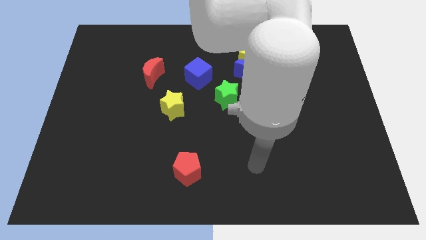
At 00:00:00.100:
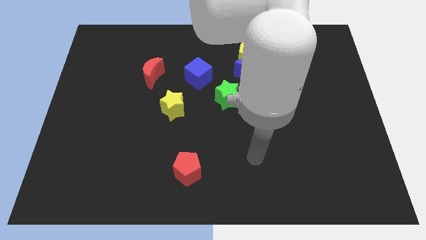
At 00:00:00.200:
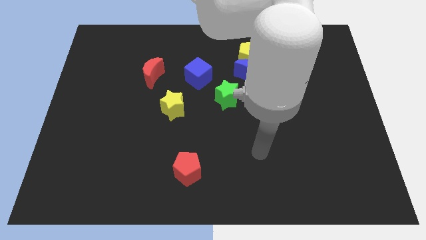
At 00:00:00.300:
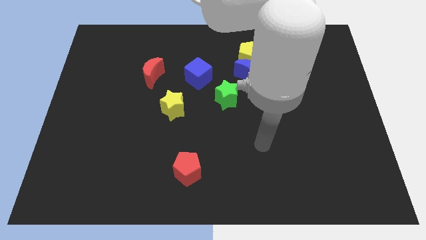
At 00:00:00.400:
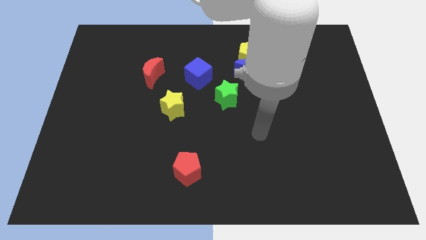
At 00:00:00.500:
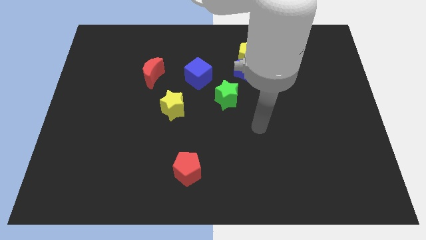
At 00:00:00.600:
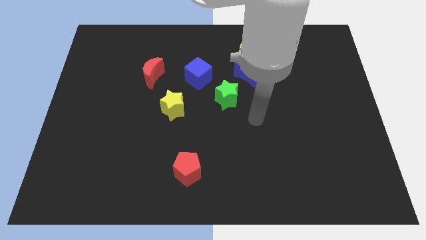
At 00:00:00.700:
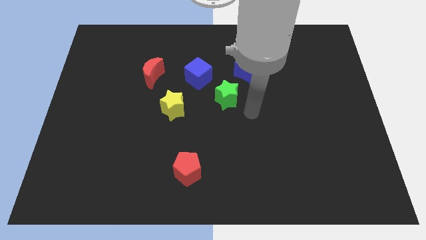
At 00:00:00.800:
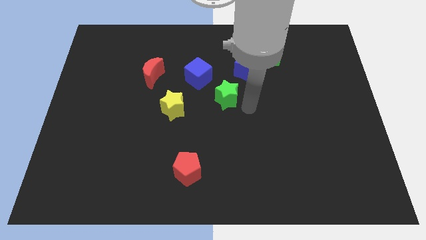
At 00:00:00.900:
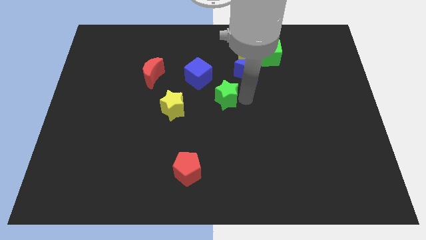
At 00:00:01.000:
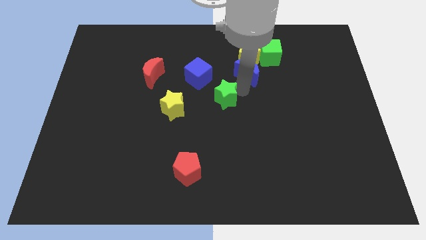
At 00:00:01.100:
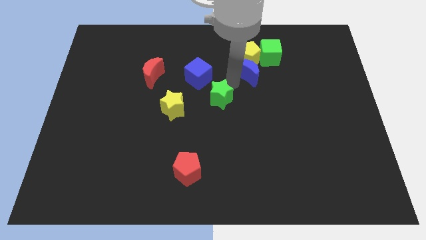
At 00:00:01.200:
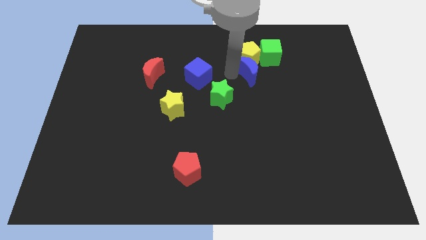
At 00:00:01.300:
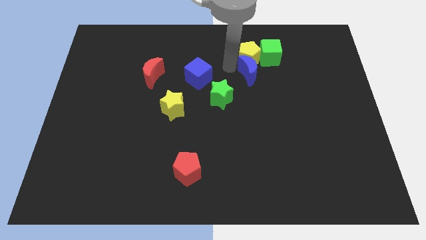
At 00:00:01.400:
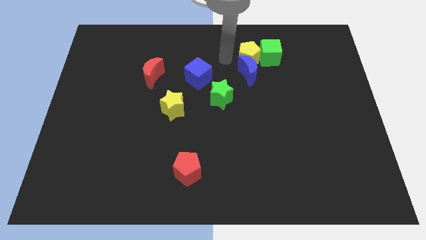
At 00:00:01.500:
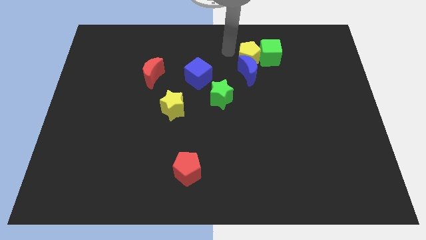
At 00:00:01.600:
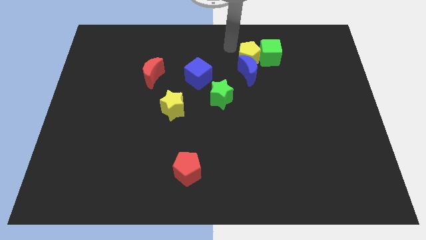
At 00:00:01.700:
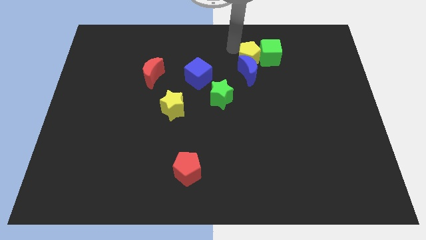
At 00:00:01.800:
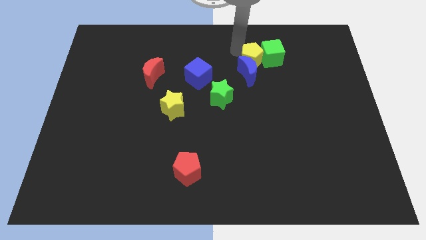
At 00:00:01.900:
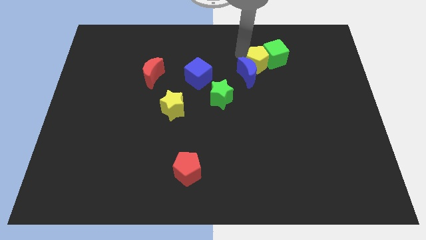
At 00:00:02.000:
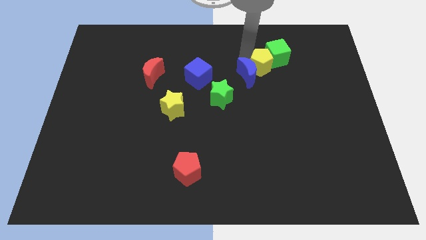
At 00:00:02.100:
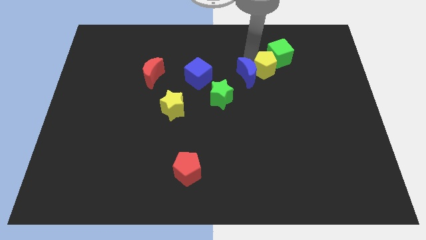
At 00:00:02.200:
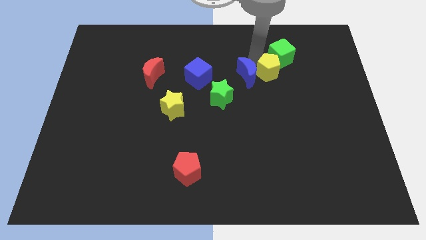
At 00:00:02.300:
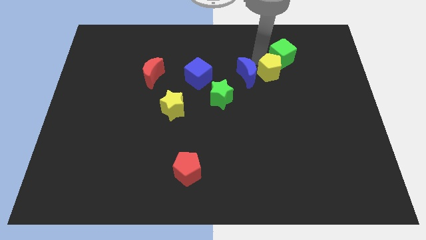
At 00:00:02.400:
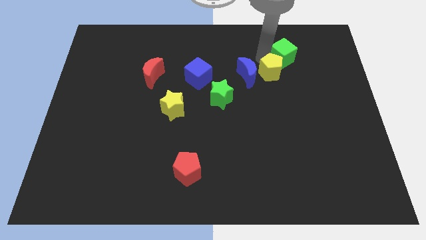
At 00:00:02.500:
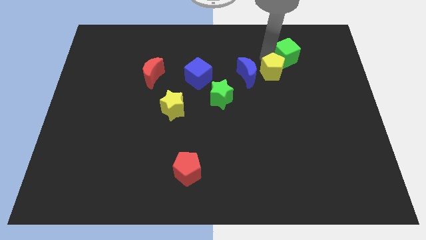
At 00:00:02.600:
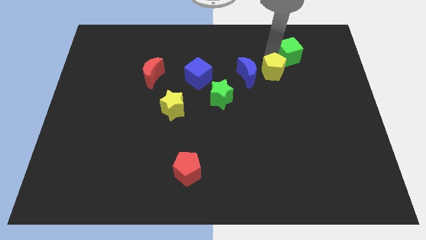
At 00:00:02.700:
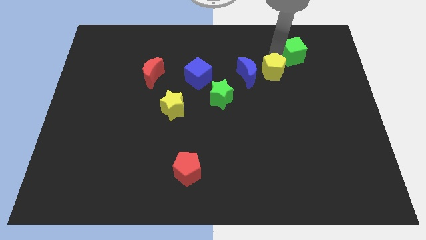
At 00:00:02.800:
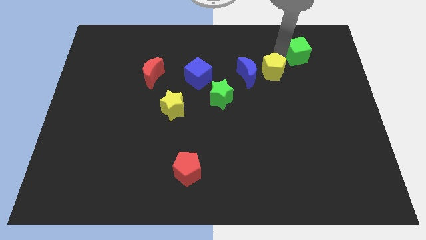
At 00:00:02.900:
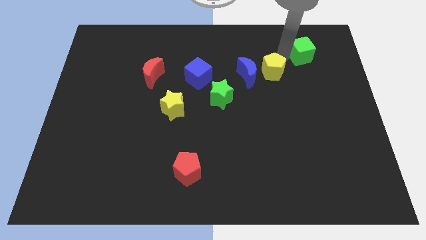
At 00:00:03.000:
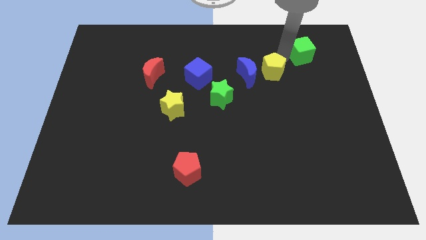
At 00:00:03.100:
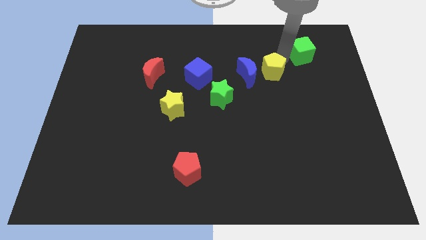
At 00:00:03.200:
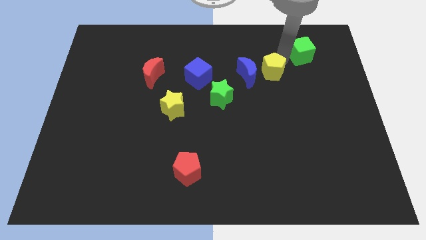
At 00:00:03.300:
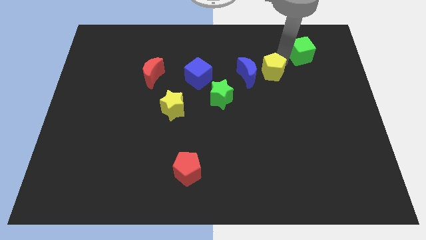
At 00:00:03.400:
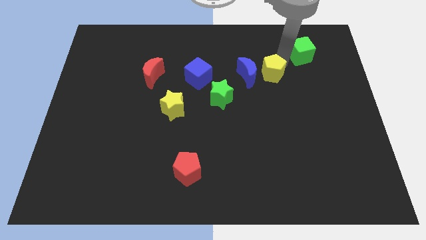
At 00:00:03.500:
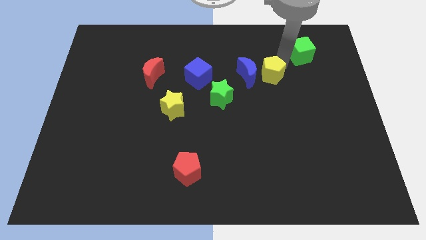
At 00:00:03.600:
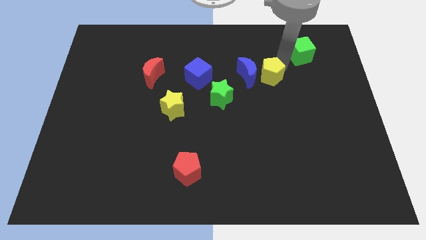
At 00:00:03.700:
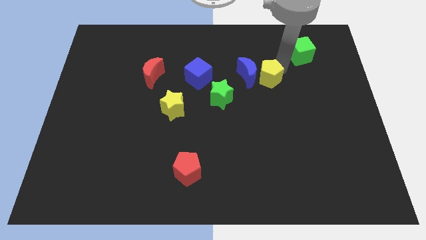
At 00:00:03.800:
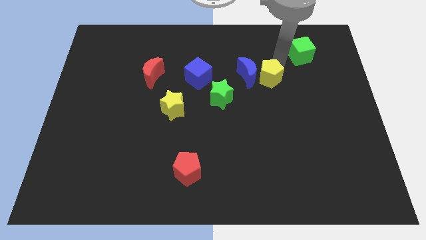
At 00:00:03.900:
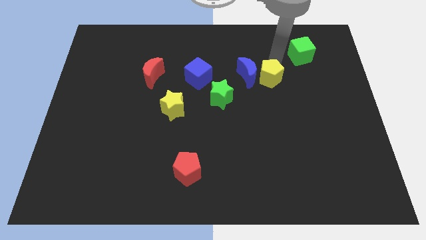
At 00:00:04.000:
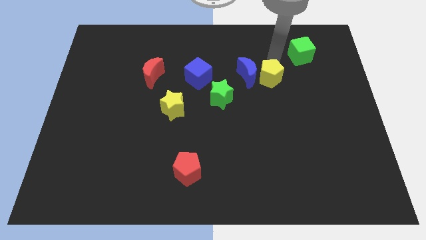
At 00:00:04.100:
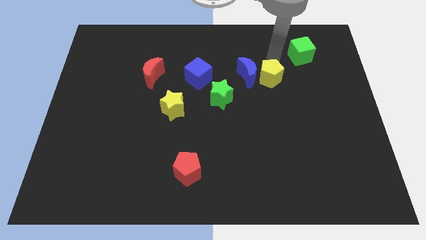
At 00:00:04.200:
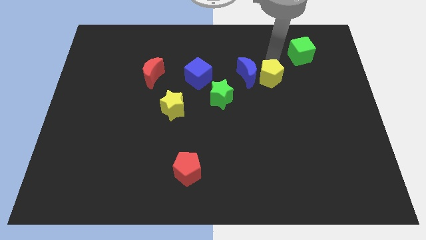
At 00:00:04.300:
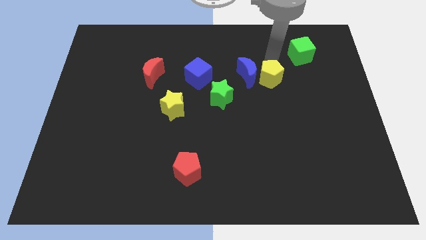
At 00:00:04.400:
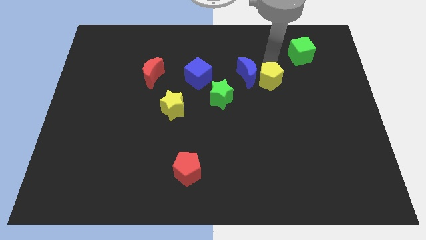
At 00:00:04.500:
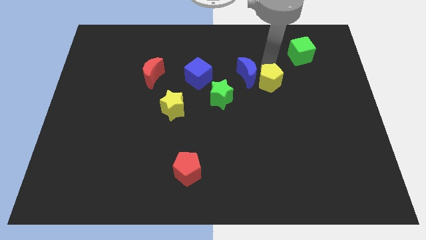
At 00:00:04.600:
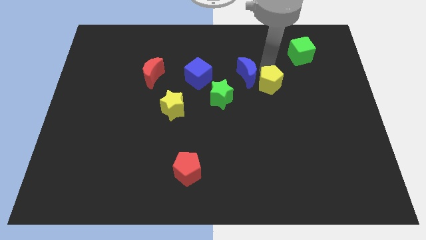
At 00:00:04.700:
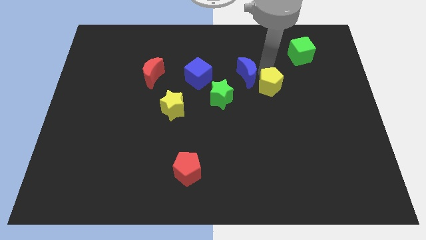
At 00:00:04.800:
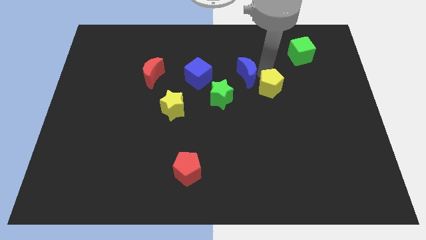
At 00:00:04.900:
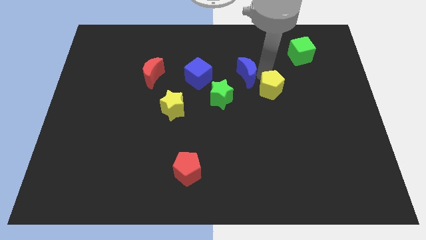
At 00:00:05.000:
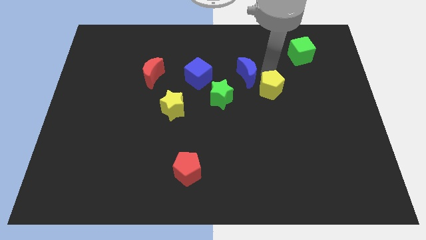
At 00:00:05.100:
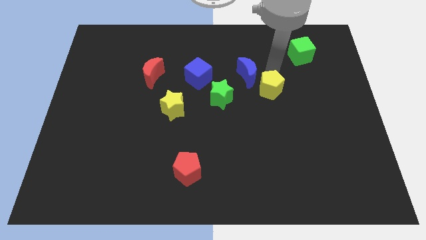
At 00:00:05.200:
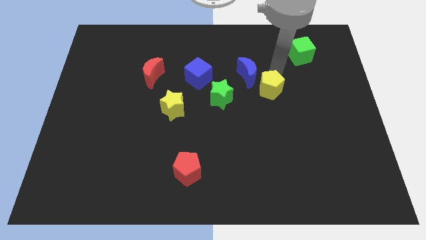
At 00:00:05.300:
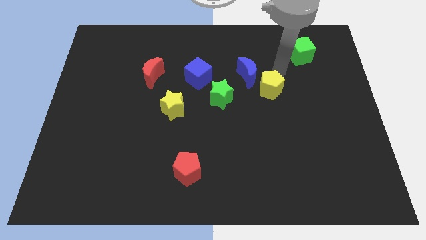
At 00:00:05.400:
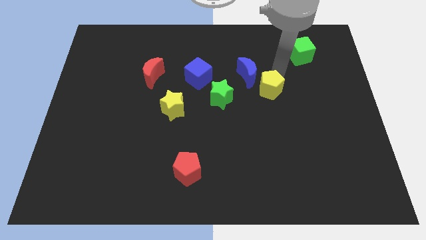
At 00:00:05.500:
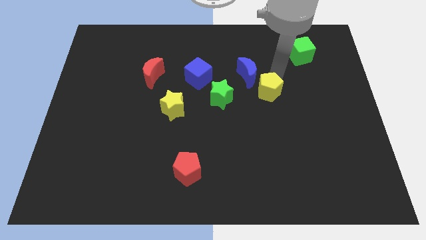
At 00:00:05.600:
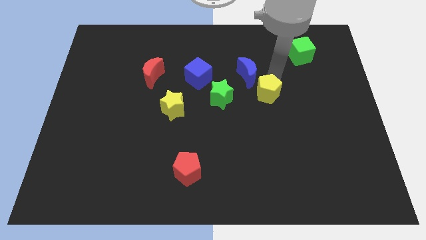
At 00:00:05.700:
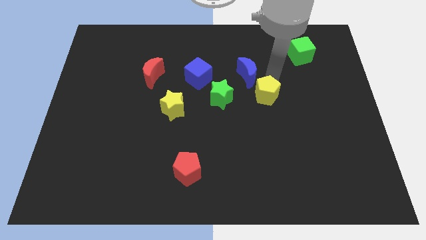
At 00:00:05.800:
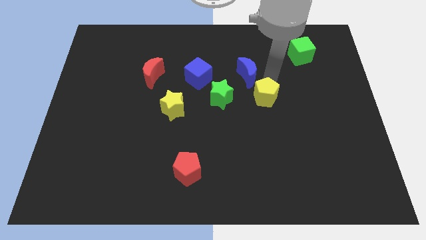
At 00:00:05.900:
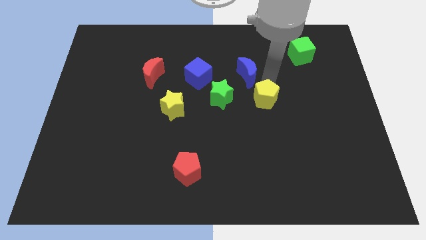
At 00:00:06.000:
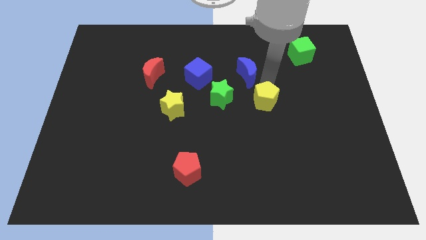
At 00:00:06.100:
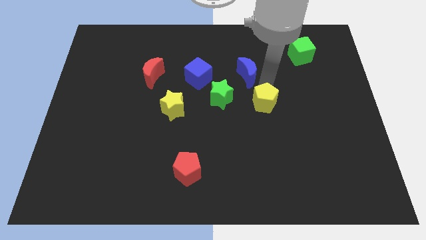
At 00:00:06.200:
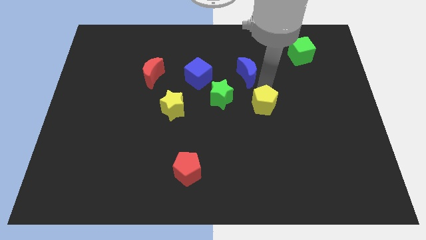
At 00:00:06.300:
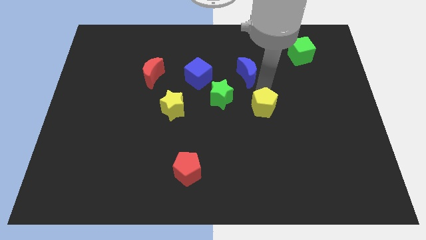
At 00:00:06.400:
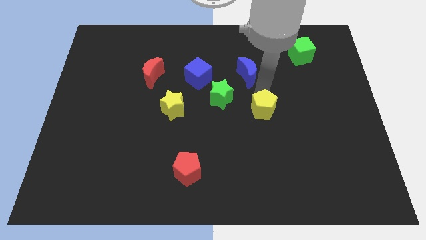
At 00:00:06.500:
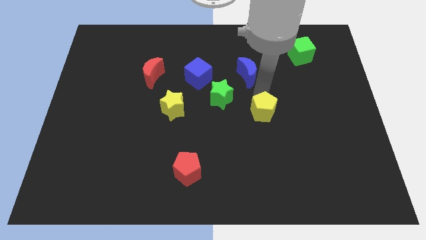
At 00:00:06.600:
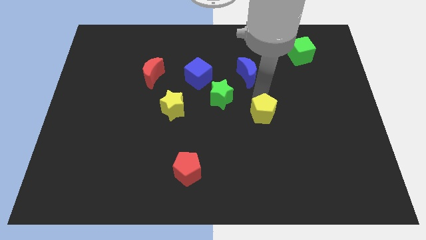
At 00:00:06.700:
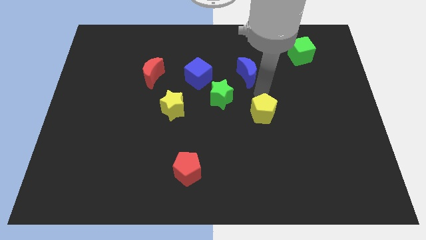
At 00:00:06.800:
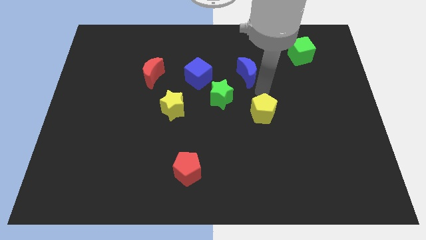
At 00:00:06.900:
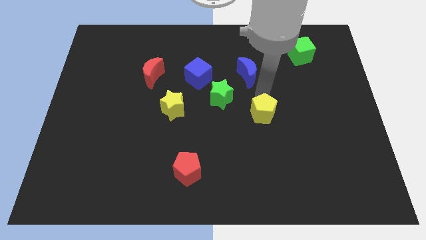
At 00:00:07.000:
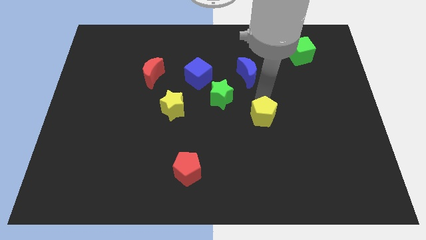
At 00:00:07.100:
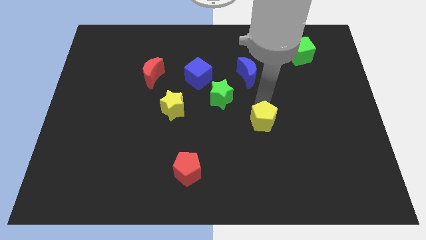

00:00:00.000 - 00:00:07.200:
push the yellow pentagon downwards
